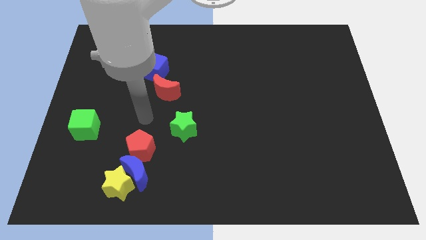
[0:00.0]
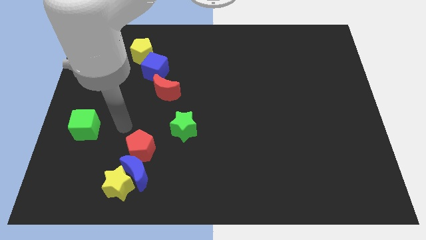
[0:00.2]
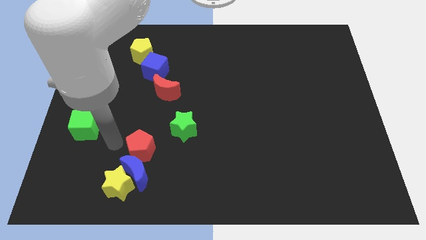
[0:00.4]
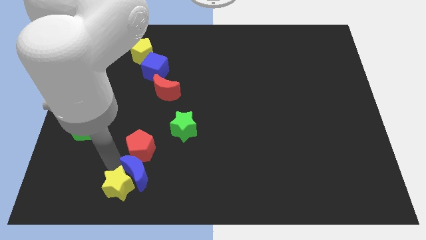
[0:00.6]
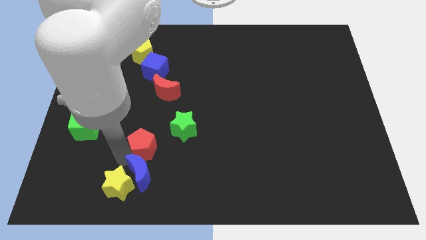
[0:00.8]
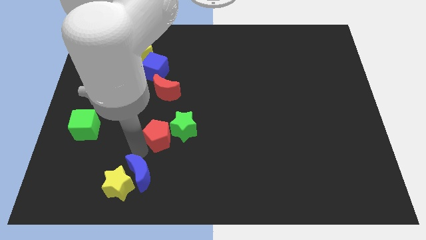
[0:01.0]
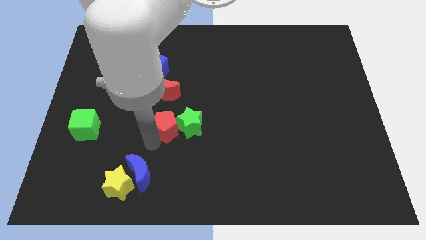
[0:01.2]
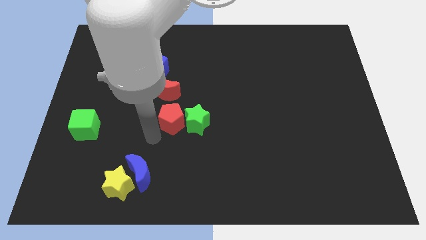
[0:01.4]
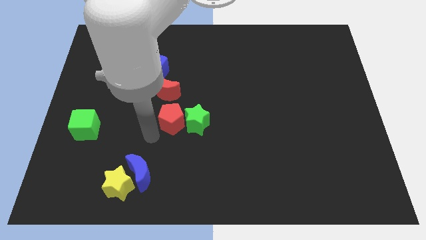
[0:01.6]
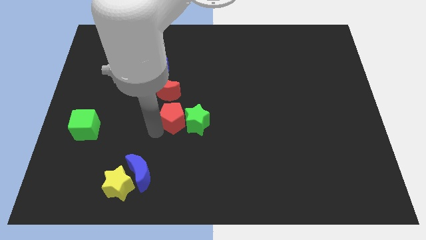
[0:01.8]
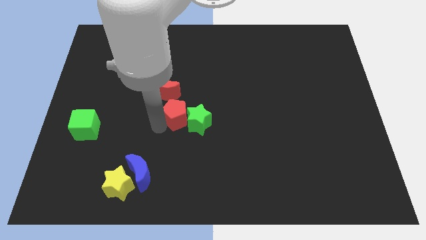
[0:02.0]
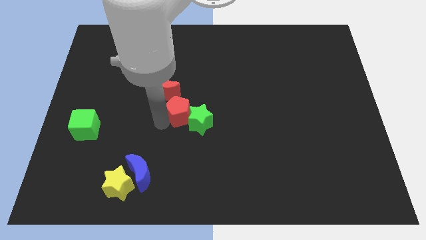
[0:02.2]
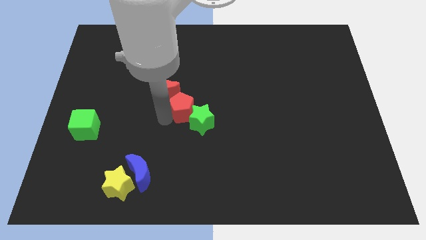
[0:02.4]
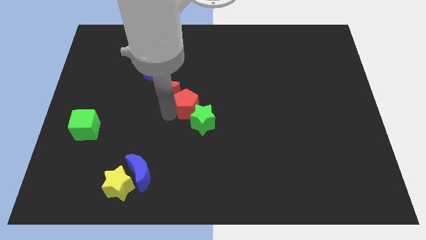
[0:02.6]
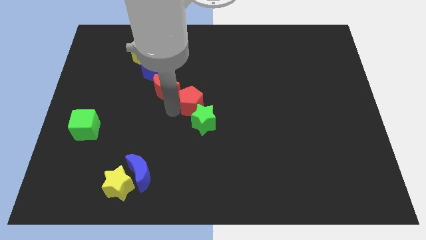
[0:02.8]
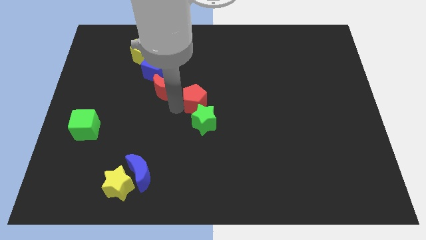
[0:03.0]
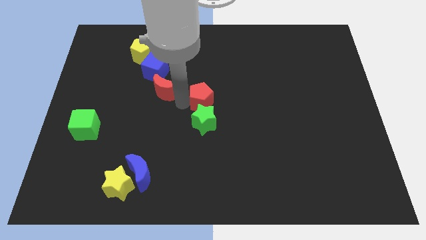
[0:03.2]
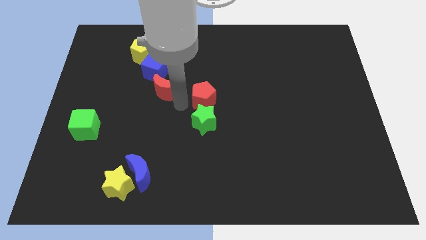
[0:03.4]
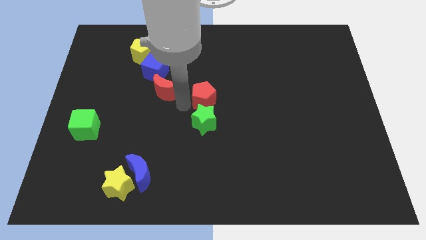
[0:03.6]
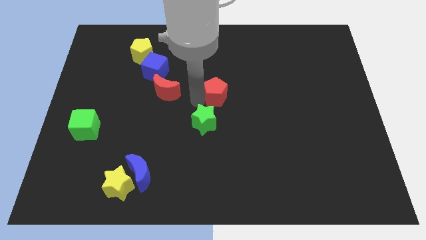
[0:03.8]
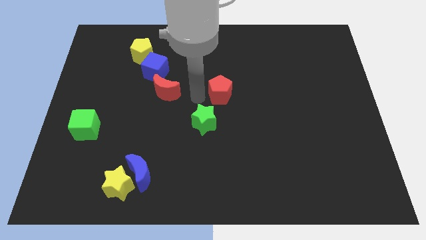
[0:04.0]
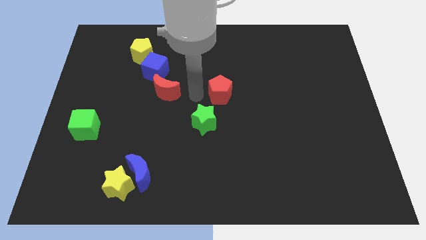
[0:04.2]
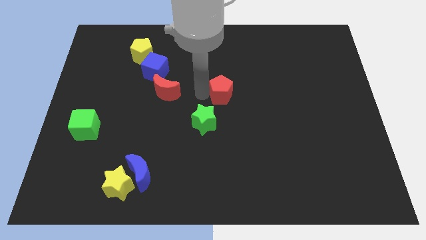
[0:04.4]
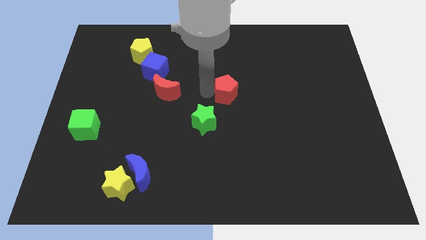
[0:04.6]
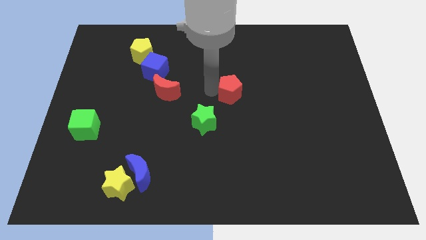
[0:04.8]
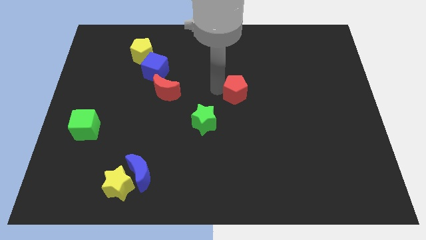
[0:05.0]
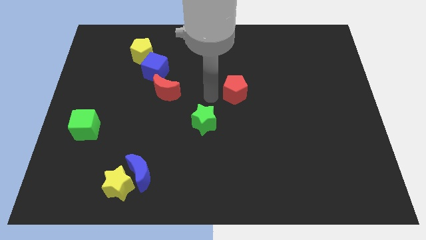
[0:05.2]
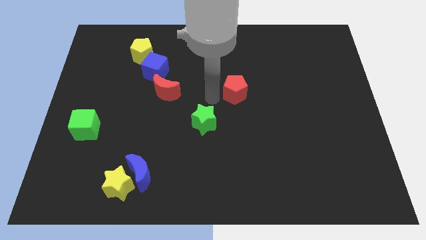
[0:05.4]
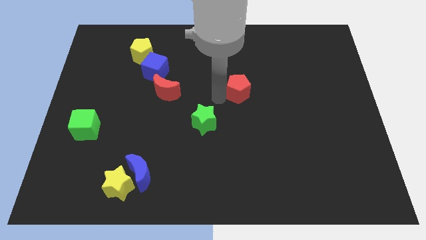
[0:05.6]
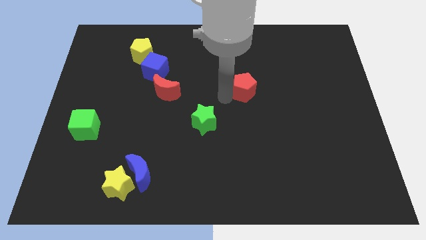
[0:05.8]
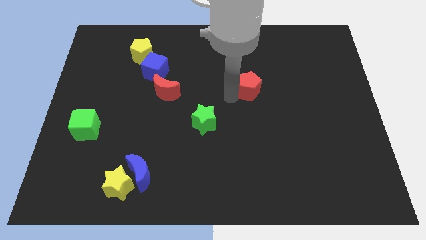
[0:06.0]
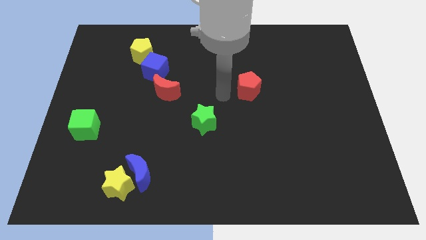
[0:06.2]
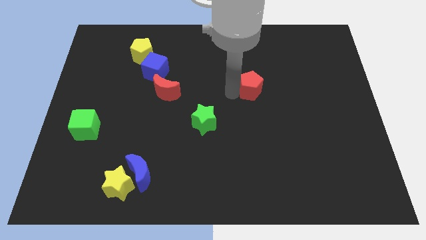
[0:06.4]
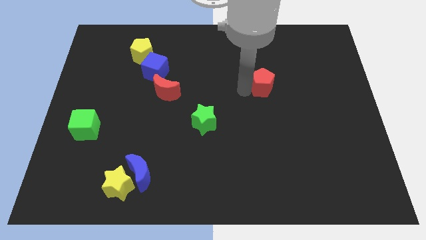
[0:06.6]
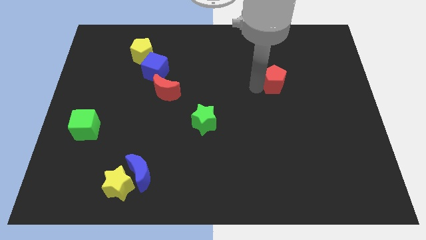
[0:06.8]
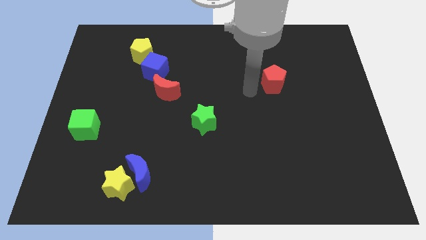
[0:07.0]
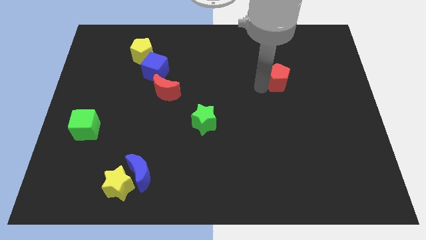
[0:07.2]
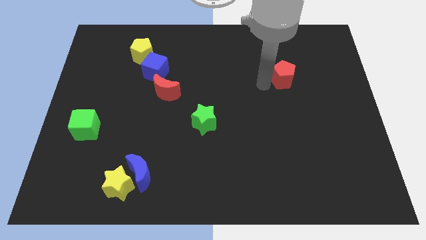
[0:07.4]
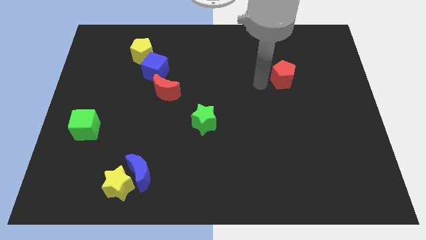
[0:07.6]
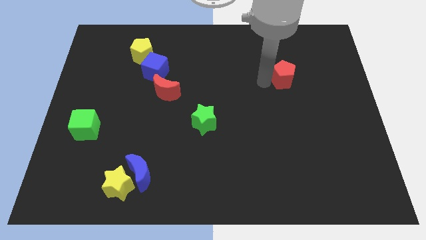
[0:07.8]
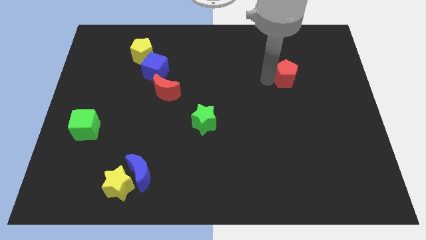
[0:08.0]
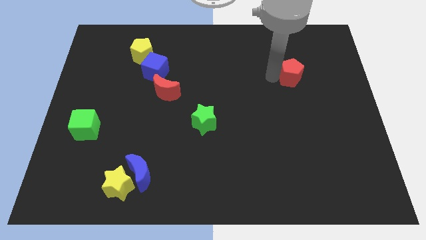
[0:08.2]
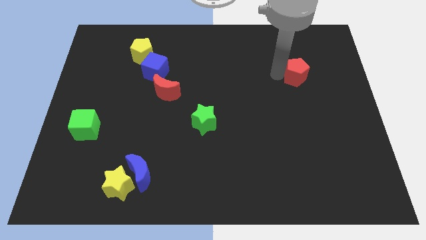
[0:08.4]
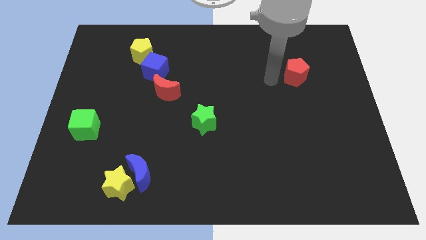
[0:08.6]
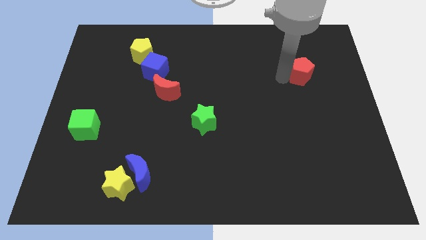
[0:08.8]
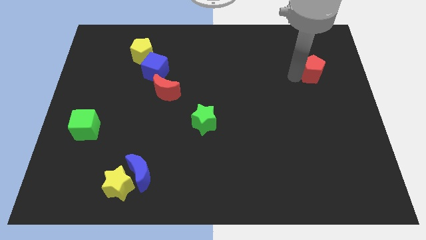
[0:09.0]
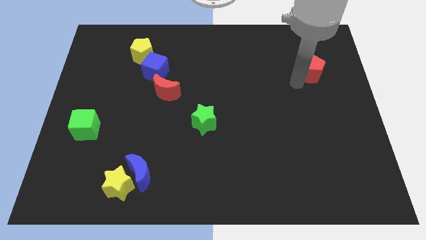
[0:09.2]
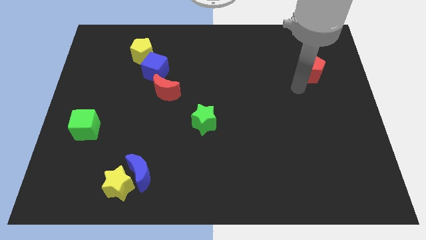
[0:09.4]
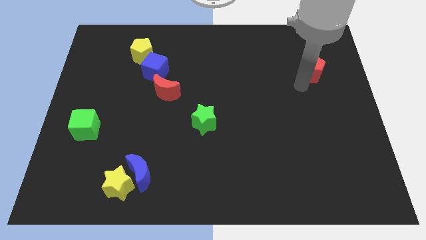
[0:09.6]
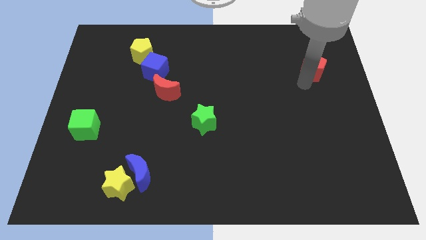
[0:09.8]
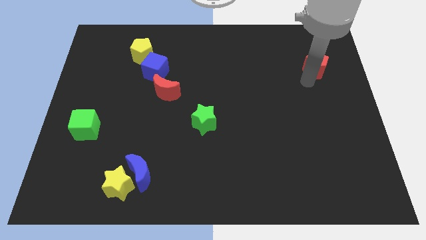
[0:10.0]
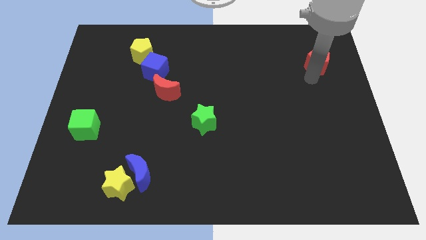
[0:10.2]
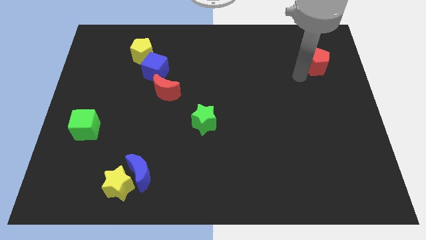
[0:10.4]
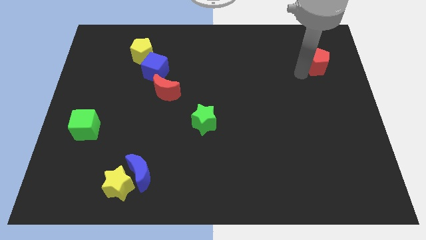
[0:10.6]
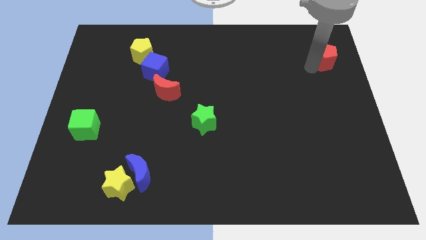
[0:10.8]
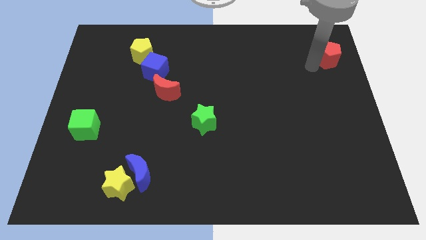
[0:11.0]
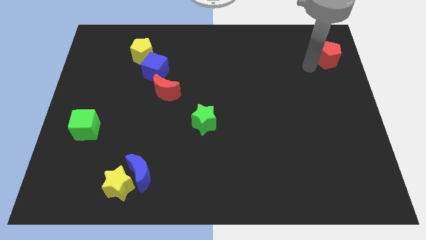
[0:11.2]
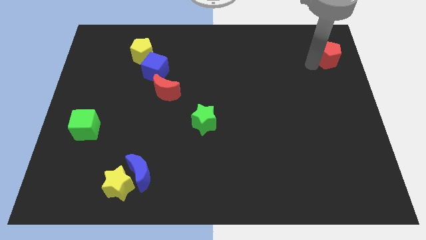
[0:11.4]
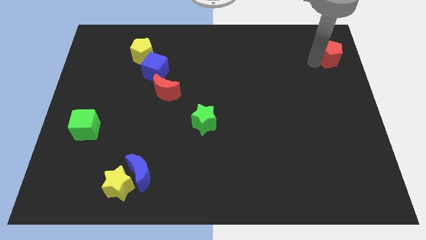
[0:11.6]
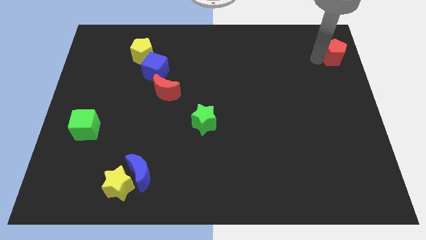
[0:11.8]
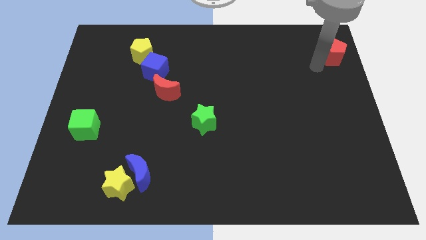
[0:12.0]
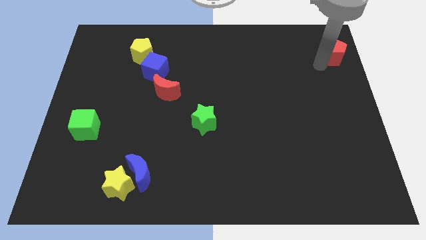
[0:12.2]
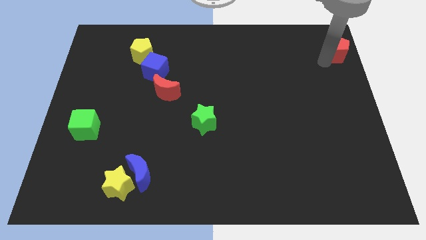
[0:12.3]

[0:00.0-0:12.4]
put the red pentagon to the top right of the board
